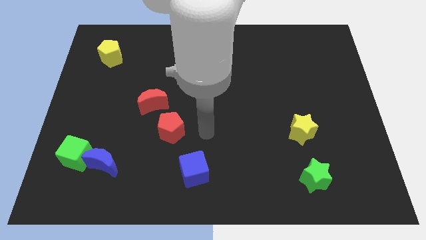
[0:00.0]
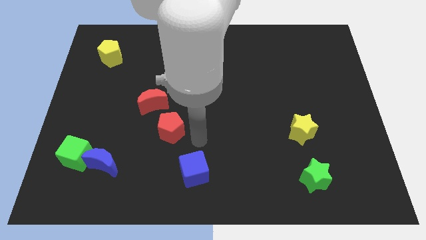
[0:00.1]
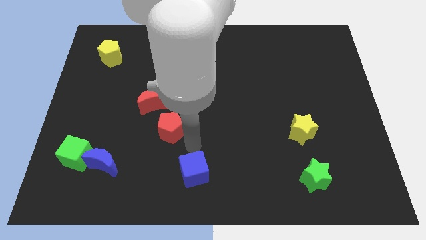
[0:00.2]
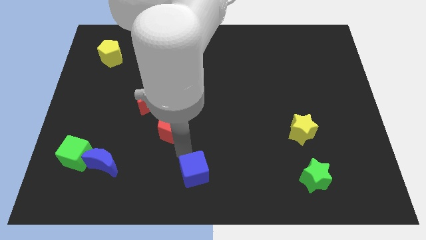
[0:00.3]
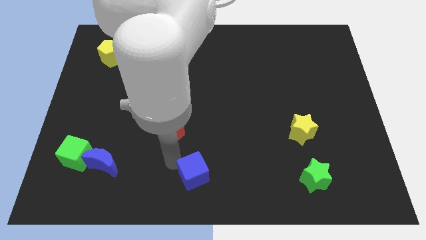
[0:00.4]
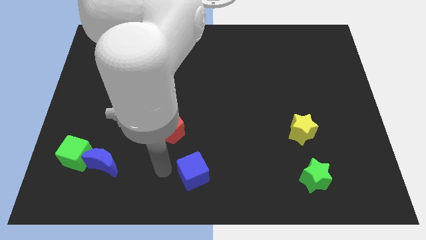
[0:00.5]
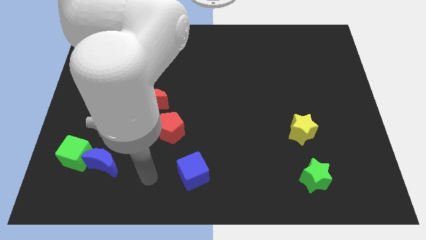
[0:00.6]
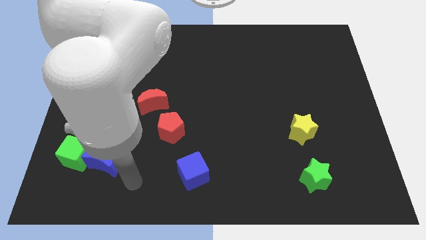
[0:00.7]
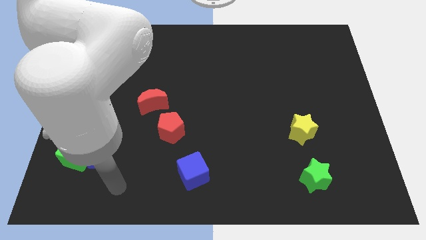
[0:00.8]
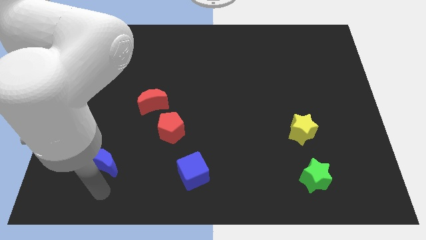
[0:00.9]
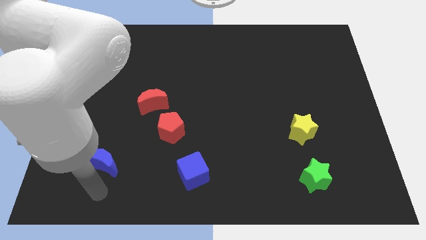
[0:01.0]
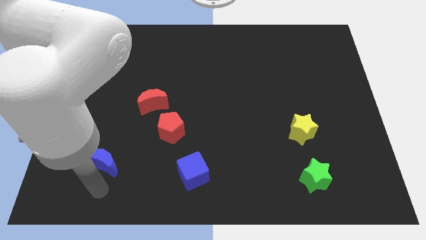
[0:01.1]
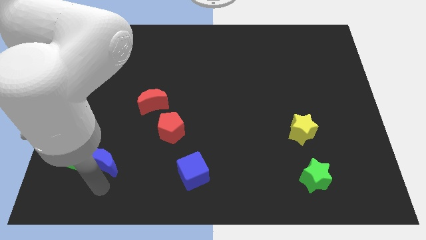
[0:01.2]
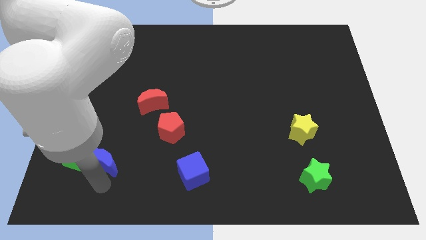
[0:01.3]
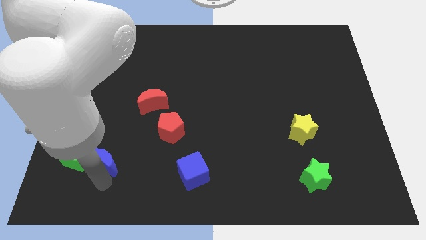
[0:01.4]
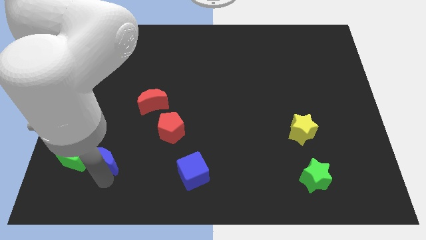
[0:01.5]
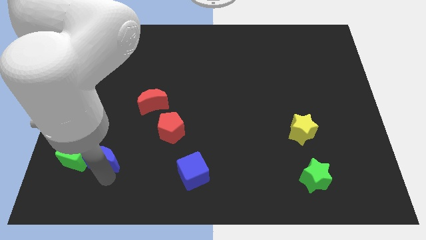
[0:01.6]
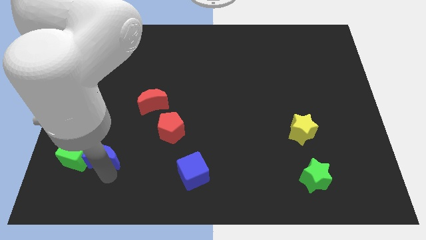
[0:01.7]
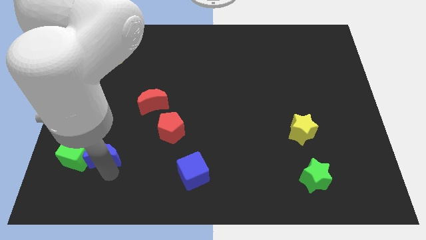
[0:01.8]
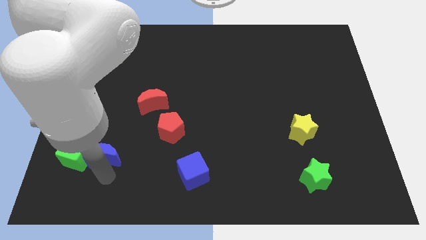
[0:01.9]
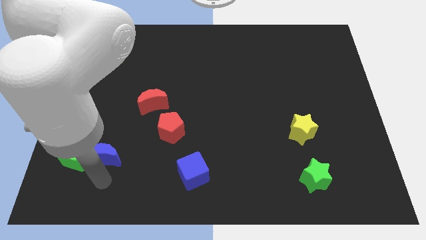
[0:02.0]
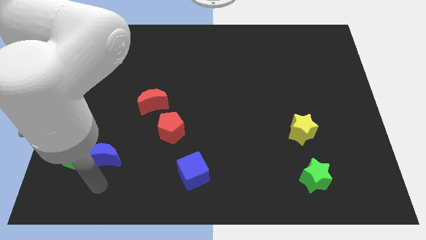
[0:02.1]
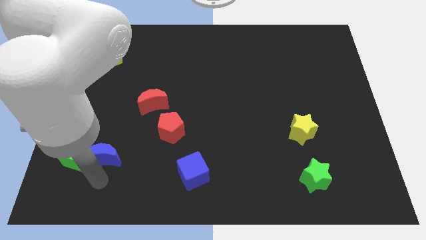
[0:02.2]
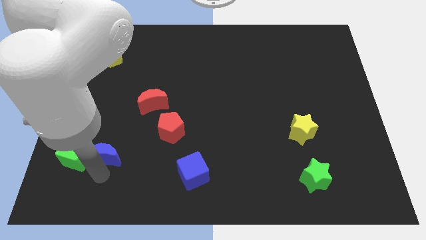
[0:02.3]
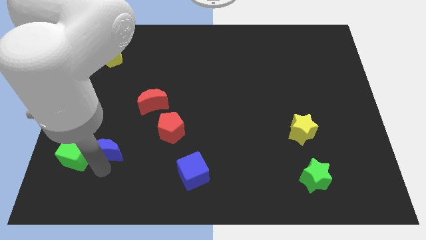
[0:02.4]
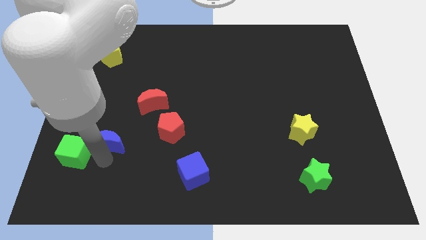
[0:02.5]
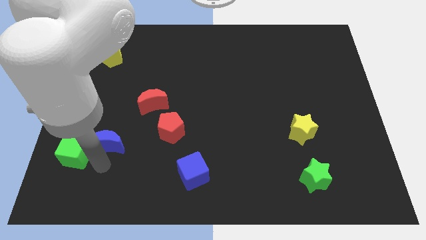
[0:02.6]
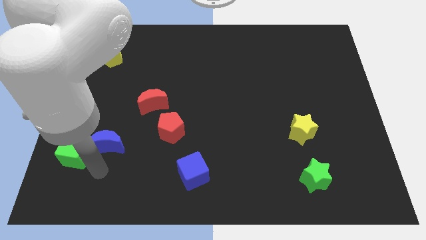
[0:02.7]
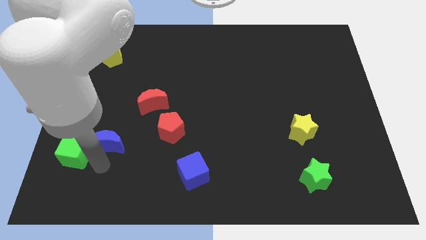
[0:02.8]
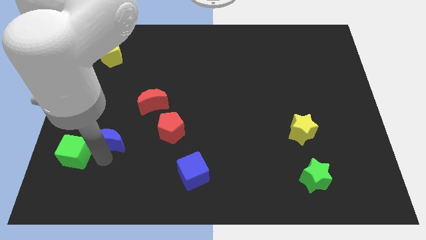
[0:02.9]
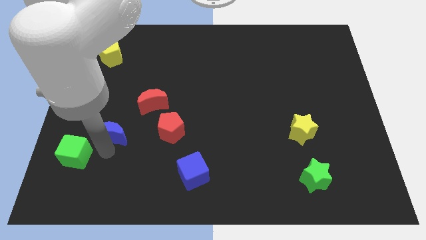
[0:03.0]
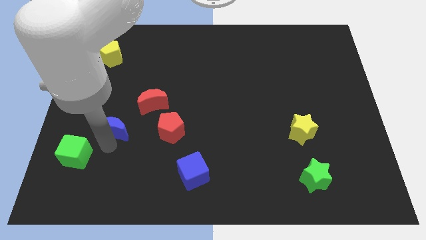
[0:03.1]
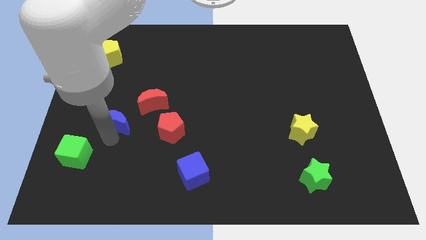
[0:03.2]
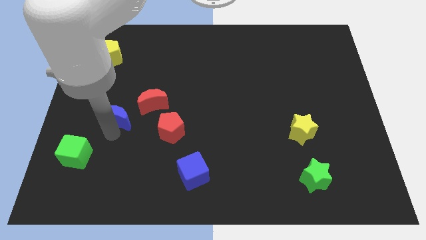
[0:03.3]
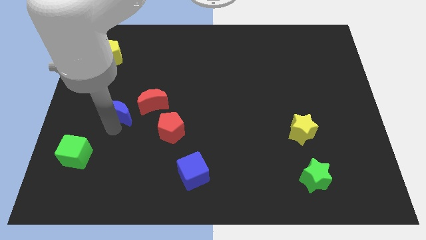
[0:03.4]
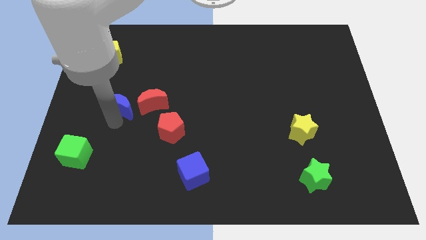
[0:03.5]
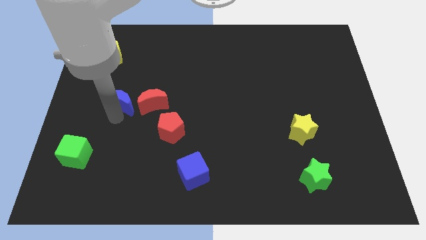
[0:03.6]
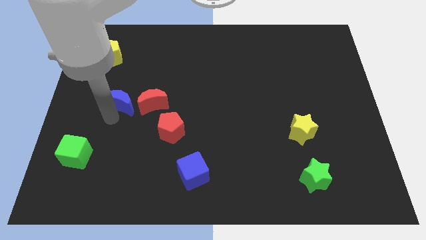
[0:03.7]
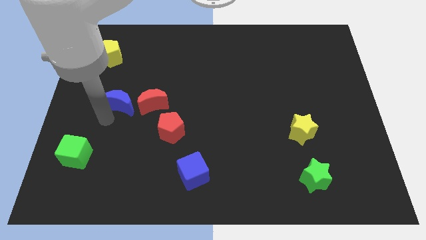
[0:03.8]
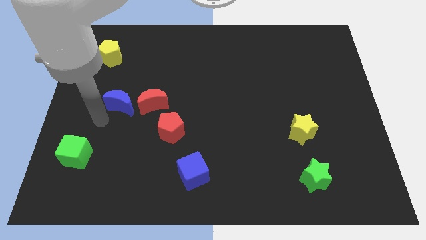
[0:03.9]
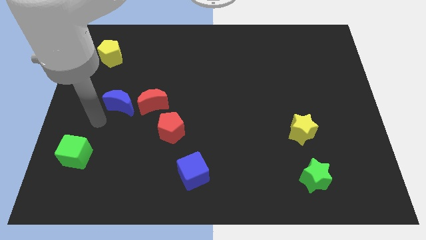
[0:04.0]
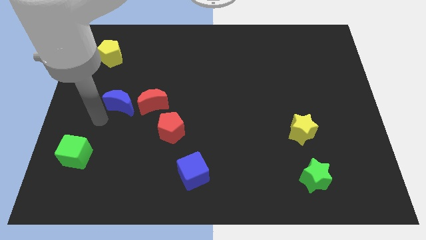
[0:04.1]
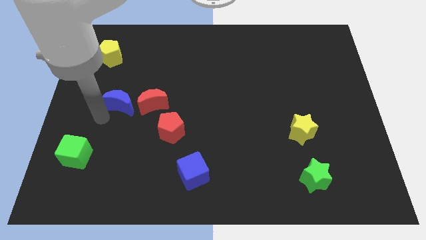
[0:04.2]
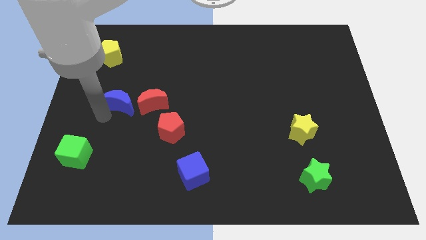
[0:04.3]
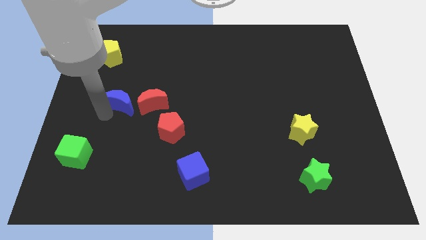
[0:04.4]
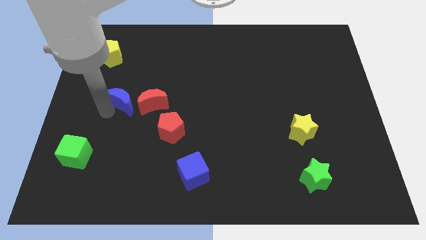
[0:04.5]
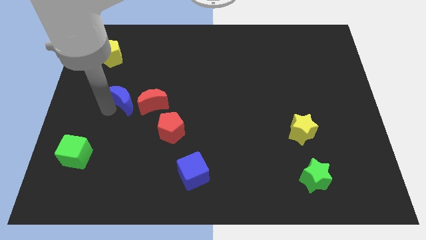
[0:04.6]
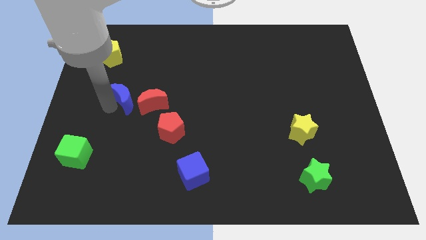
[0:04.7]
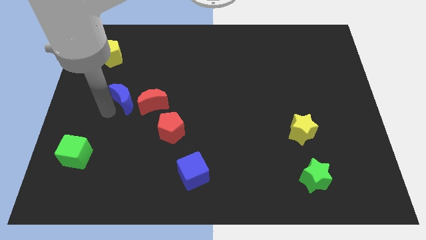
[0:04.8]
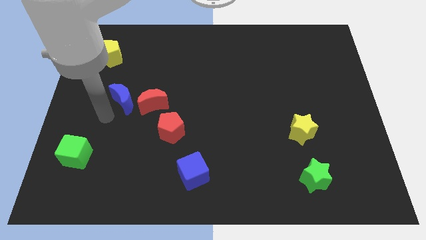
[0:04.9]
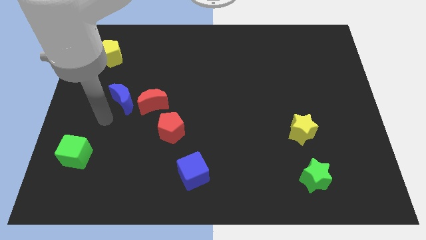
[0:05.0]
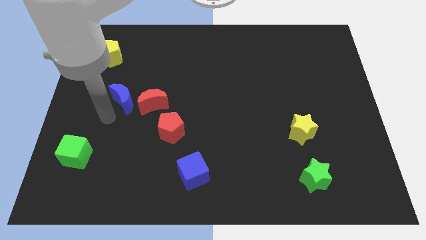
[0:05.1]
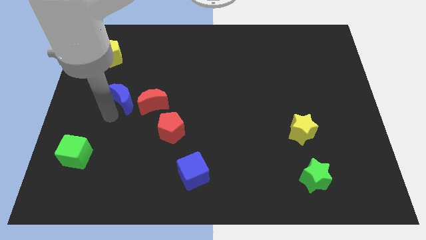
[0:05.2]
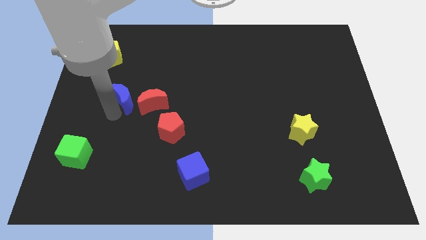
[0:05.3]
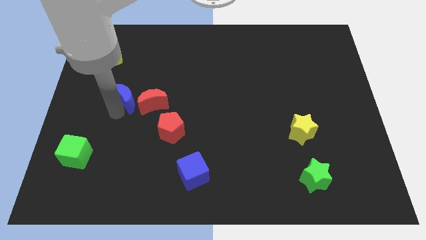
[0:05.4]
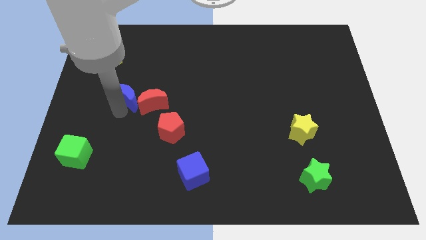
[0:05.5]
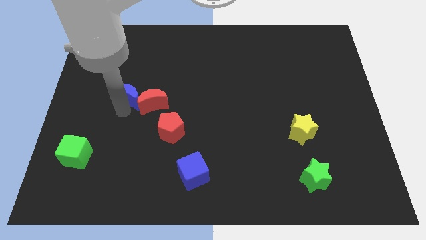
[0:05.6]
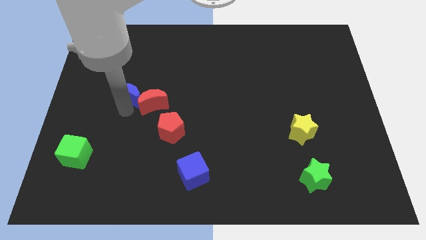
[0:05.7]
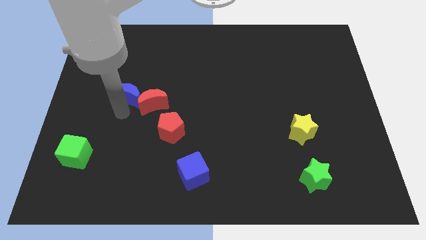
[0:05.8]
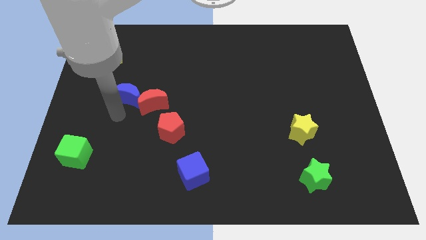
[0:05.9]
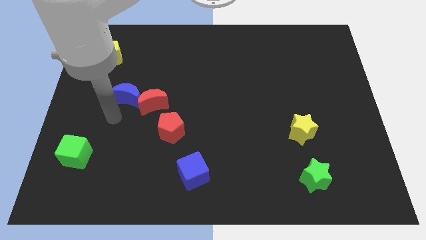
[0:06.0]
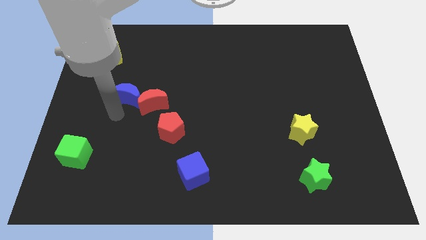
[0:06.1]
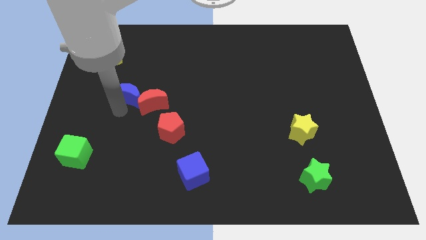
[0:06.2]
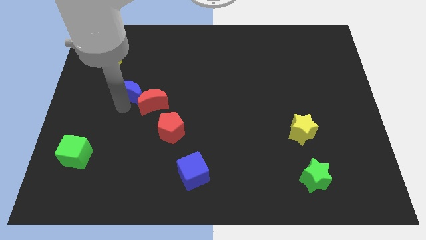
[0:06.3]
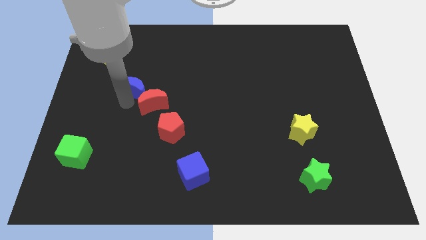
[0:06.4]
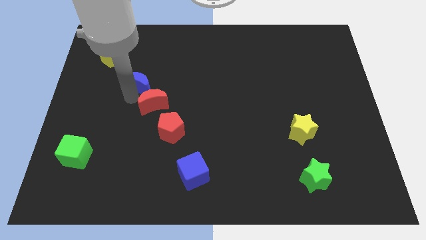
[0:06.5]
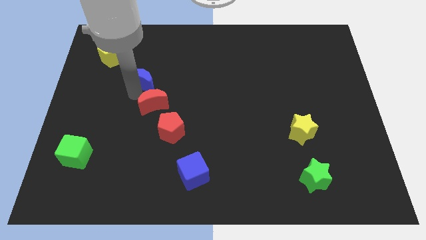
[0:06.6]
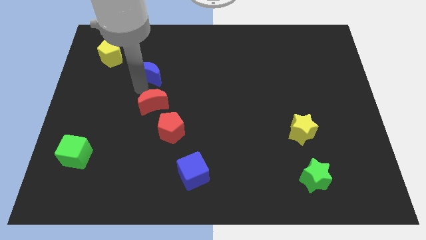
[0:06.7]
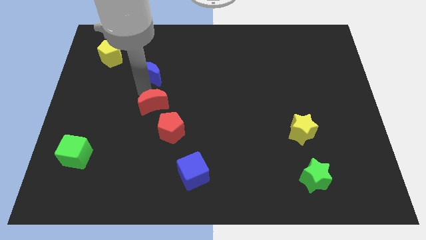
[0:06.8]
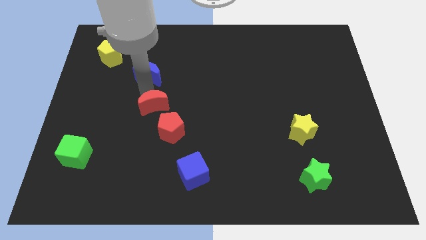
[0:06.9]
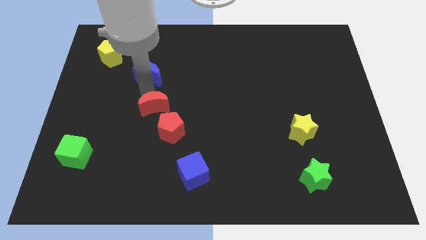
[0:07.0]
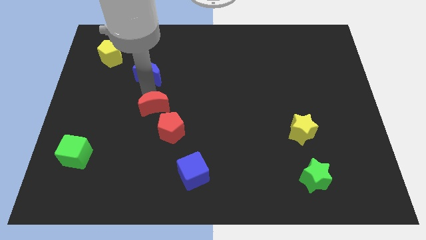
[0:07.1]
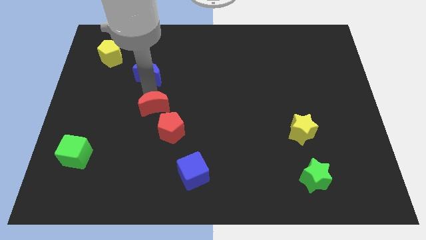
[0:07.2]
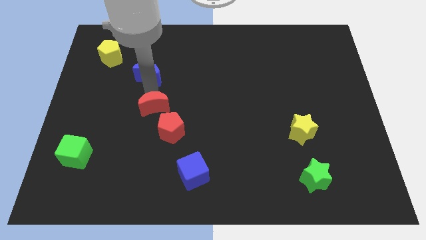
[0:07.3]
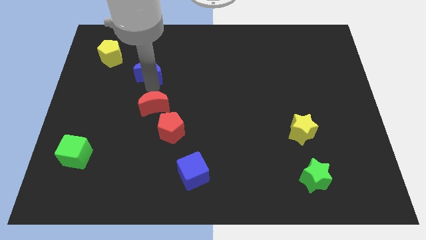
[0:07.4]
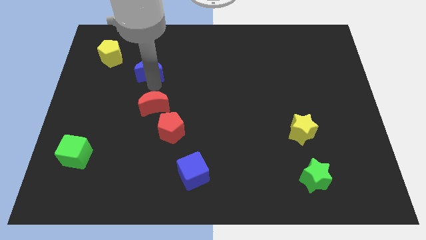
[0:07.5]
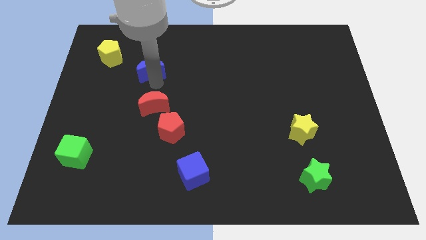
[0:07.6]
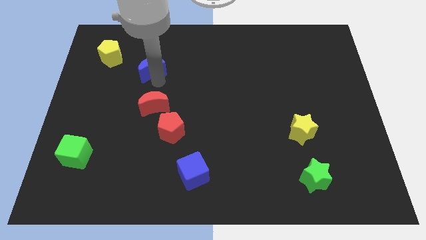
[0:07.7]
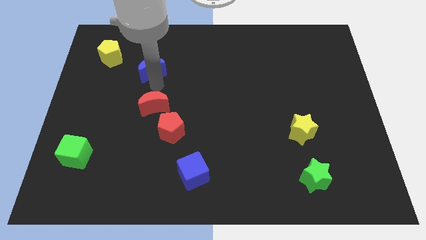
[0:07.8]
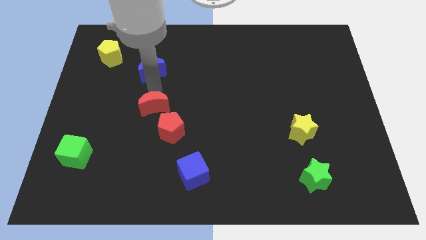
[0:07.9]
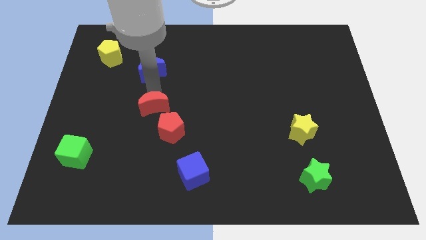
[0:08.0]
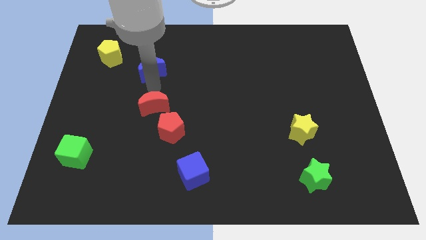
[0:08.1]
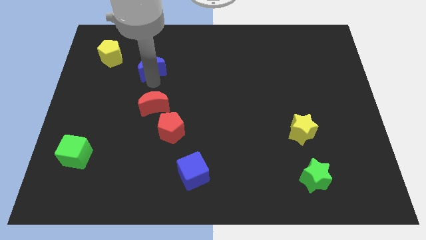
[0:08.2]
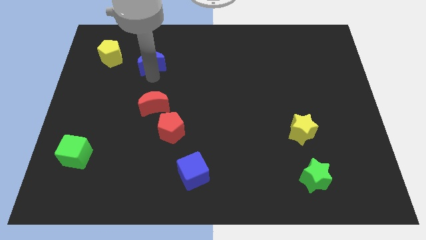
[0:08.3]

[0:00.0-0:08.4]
move the blue moon right of the yellow pentagon
